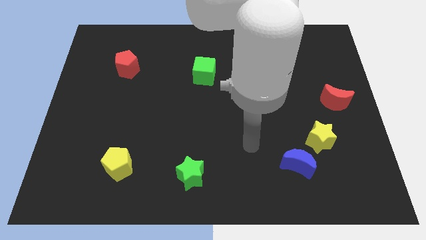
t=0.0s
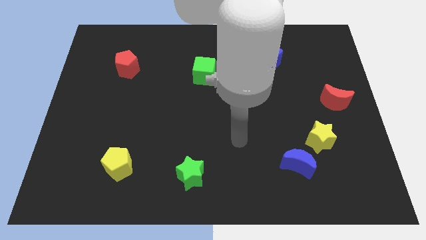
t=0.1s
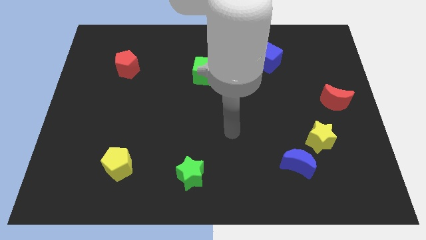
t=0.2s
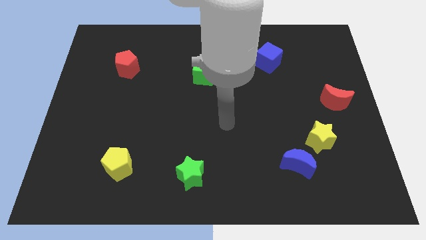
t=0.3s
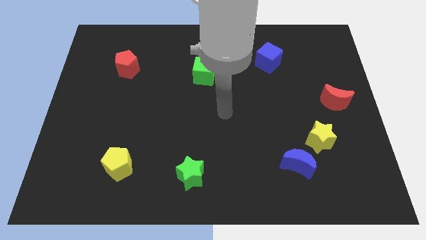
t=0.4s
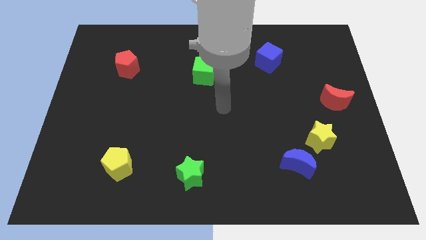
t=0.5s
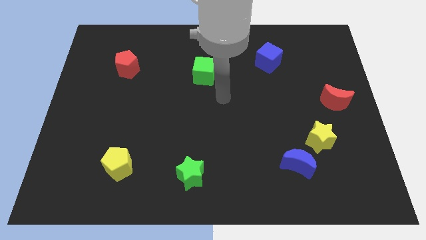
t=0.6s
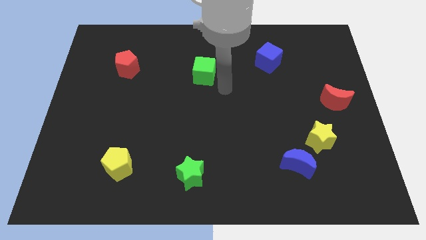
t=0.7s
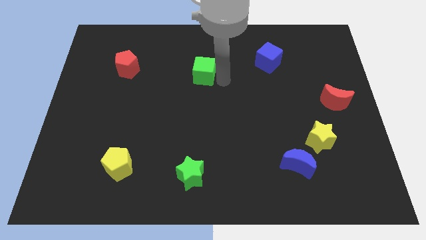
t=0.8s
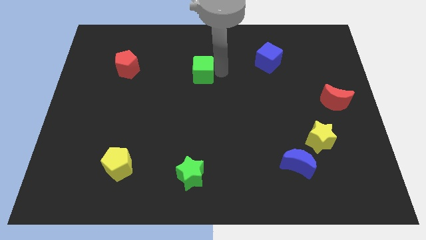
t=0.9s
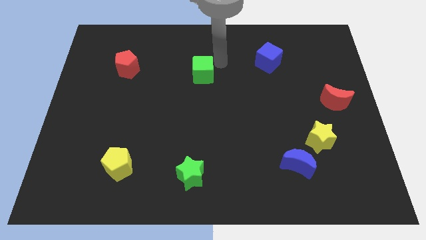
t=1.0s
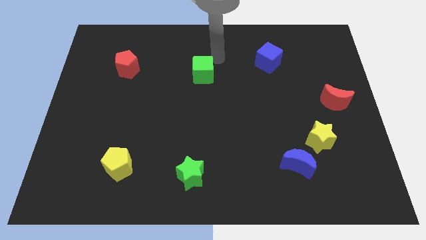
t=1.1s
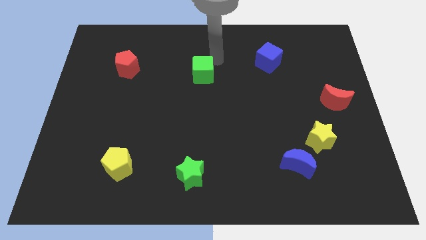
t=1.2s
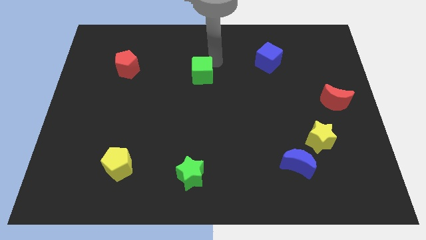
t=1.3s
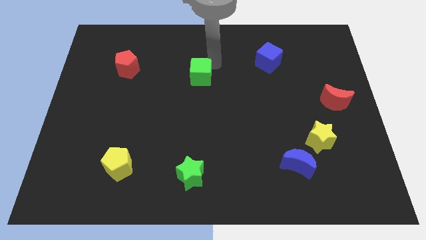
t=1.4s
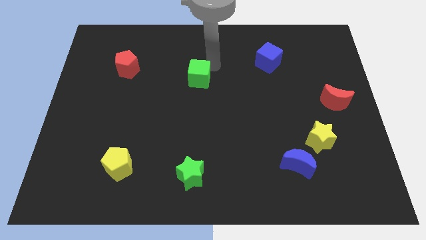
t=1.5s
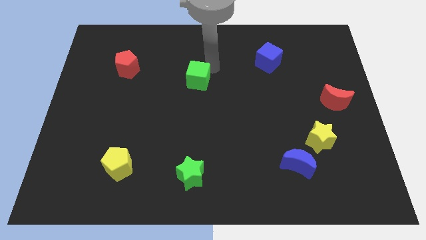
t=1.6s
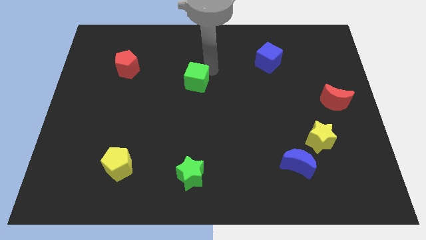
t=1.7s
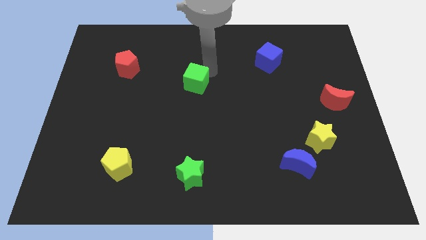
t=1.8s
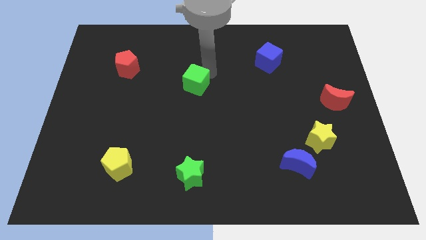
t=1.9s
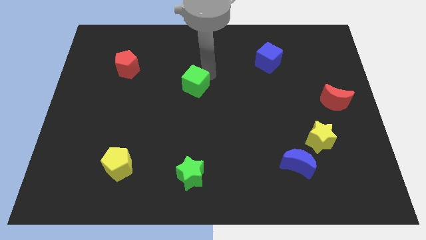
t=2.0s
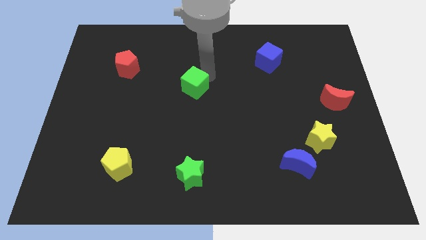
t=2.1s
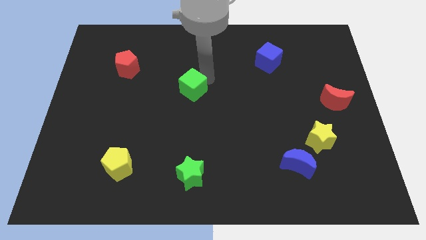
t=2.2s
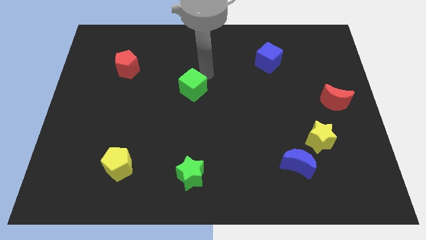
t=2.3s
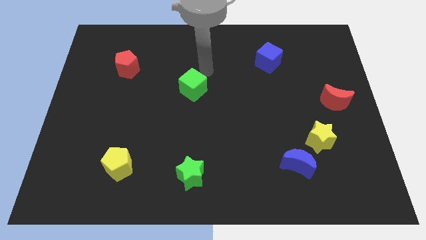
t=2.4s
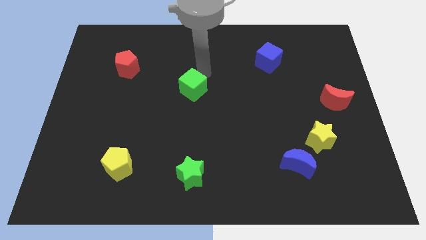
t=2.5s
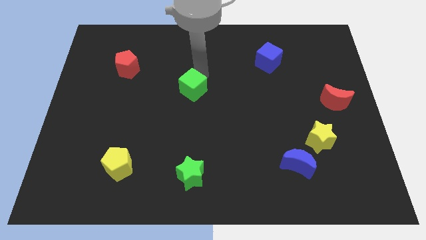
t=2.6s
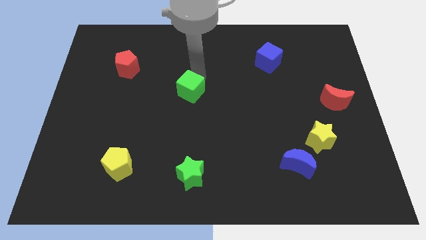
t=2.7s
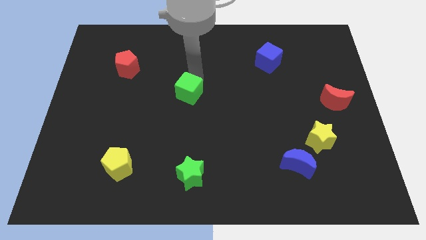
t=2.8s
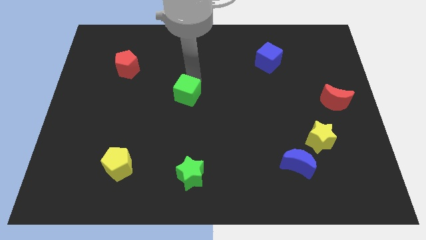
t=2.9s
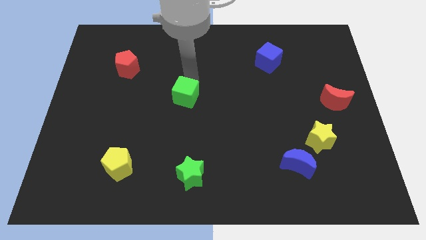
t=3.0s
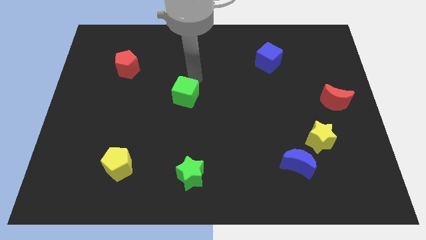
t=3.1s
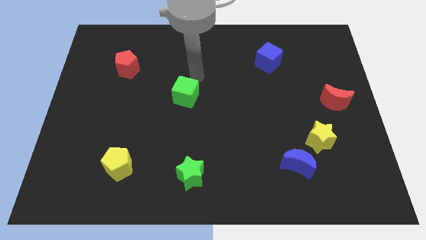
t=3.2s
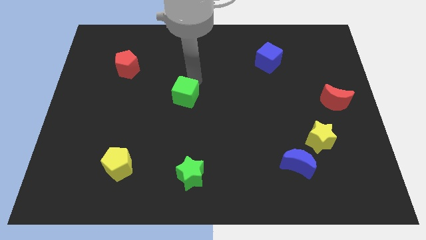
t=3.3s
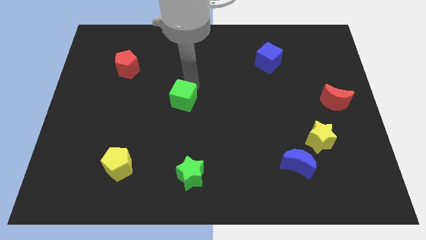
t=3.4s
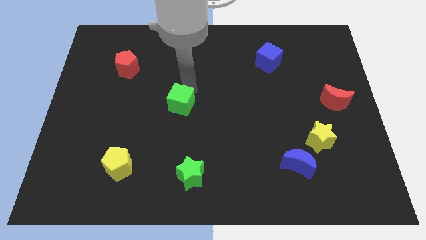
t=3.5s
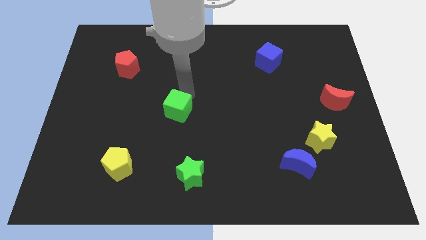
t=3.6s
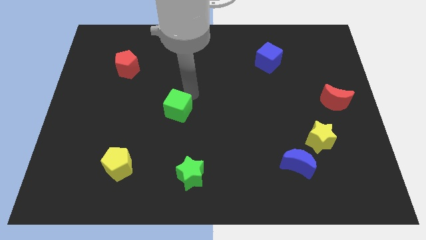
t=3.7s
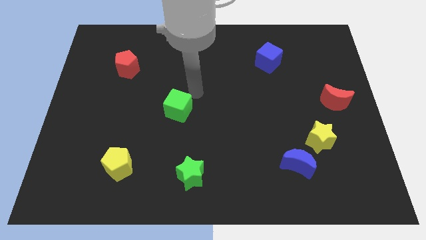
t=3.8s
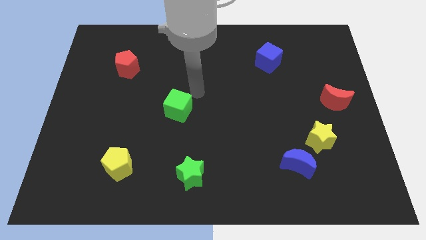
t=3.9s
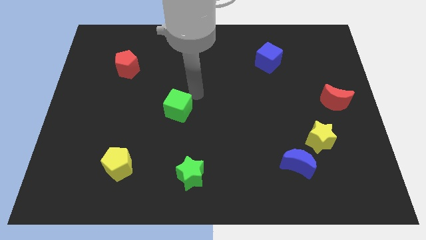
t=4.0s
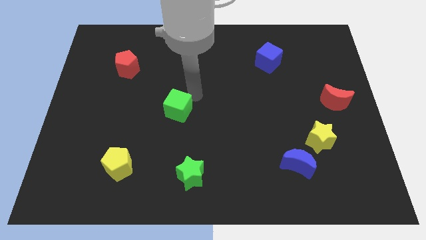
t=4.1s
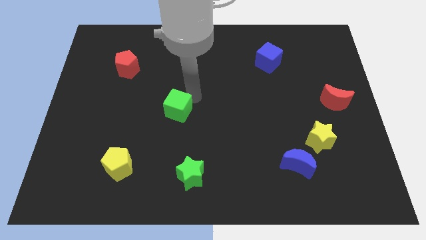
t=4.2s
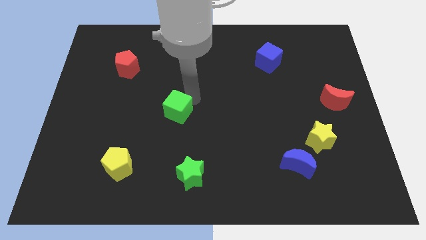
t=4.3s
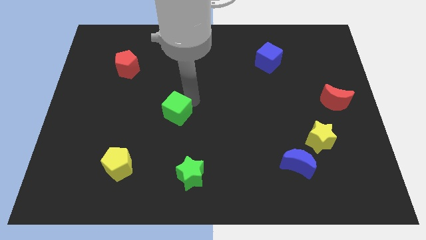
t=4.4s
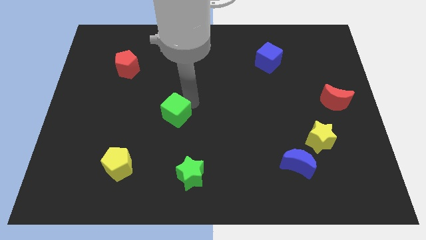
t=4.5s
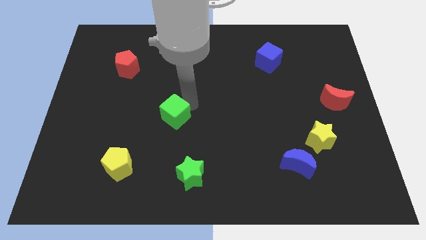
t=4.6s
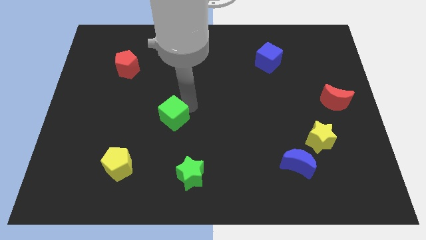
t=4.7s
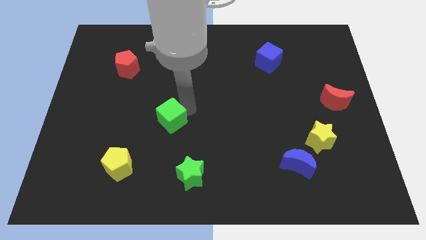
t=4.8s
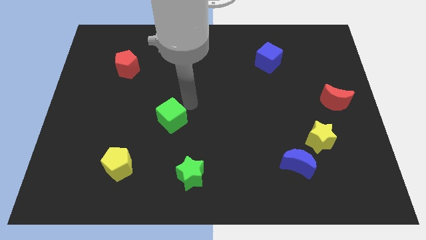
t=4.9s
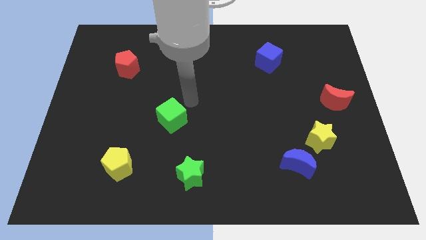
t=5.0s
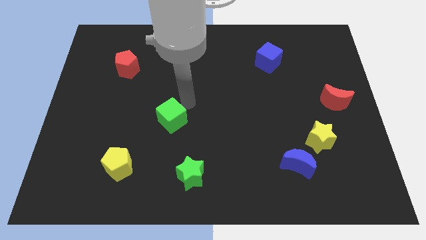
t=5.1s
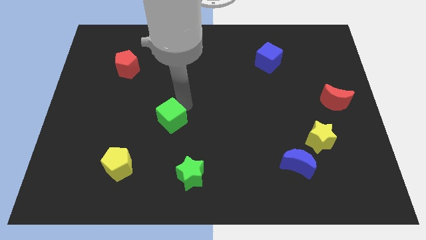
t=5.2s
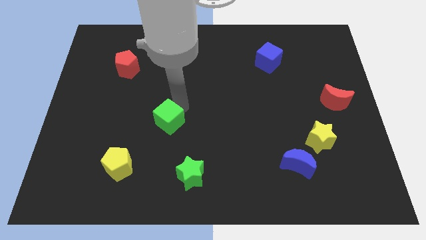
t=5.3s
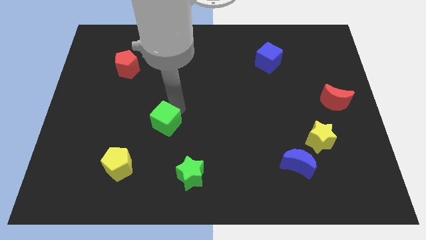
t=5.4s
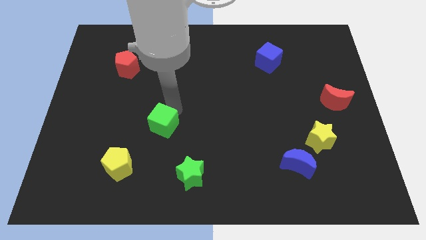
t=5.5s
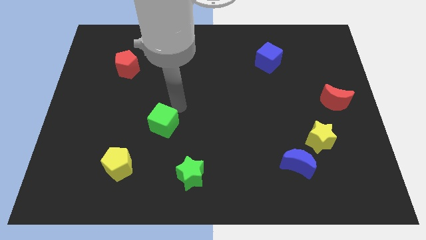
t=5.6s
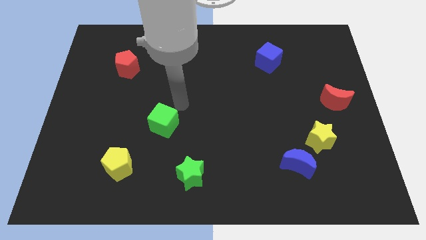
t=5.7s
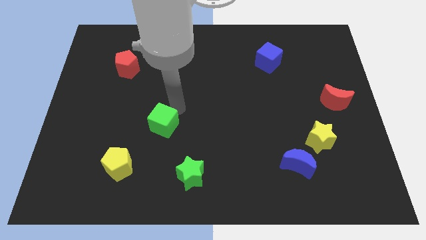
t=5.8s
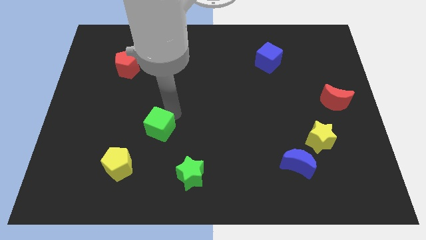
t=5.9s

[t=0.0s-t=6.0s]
move the green cube diagonally up and to the right of the yellow pentagon

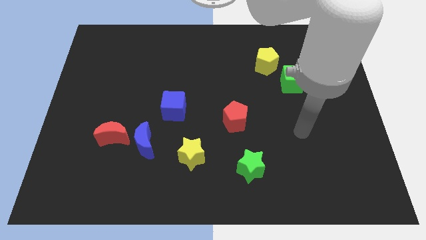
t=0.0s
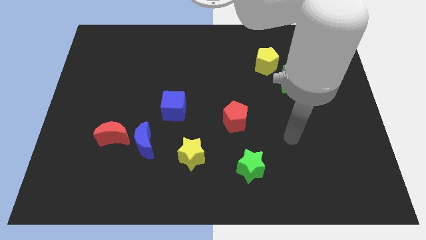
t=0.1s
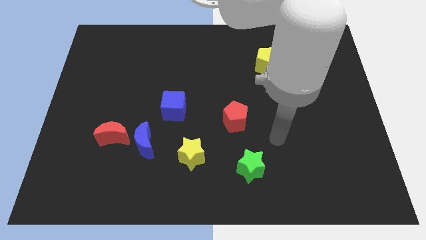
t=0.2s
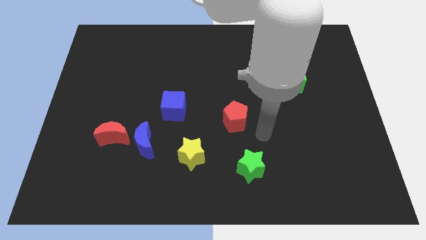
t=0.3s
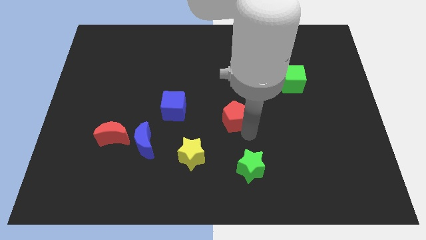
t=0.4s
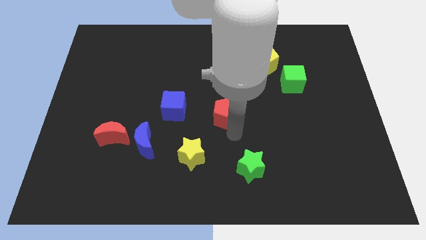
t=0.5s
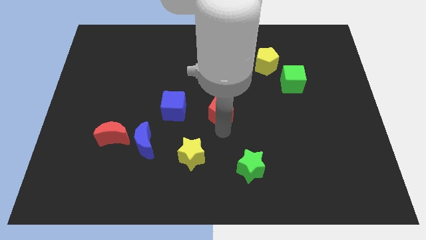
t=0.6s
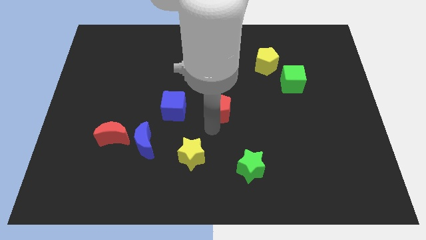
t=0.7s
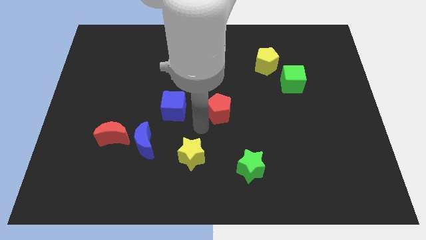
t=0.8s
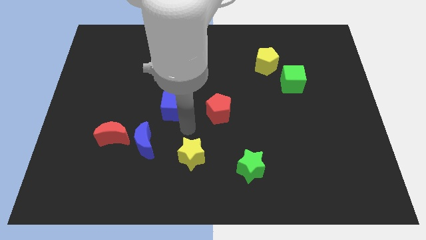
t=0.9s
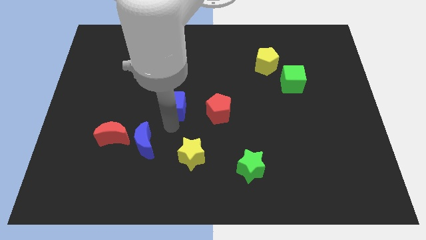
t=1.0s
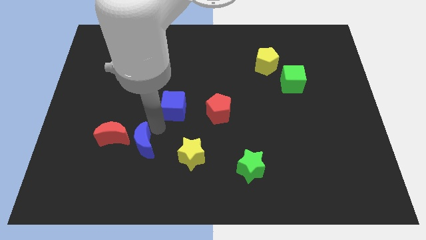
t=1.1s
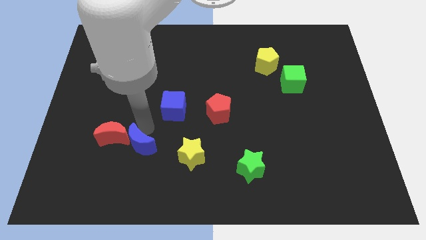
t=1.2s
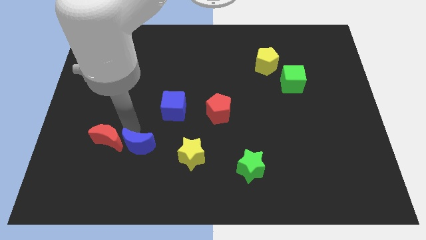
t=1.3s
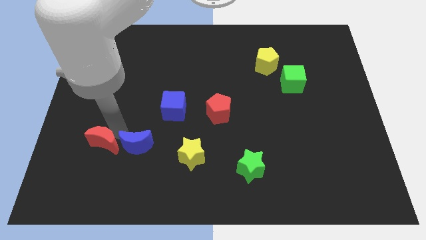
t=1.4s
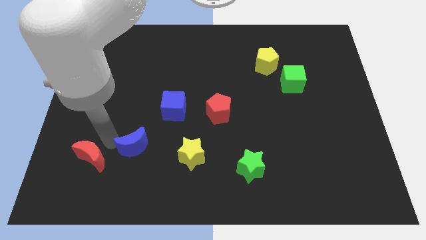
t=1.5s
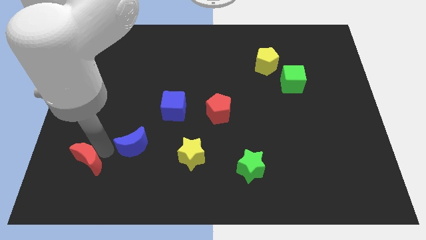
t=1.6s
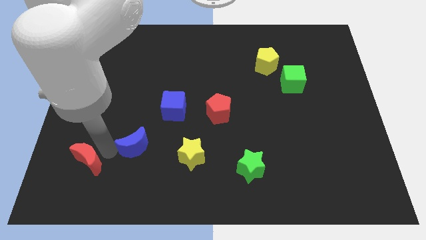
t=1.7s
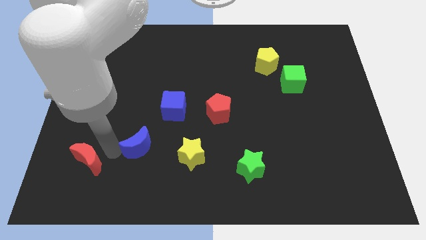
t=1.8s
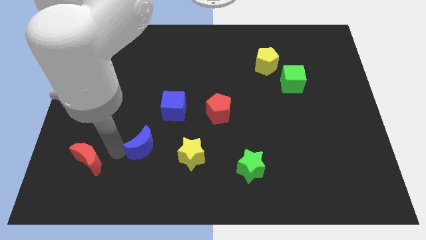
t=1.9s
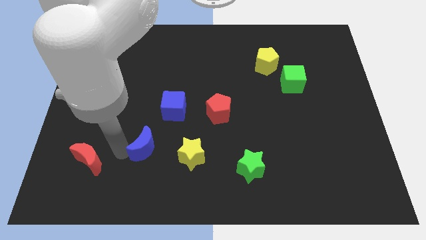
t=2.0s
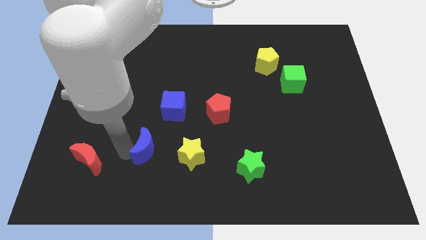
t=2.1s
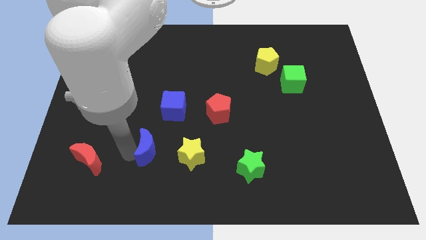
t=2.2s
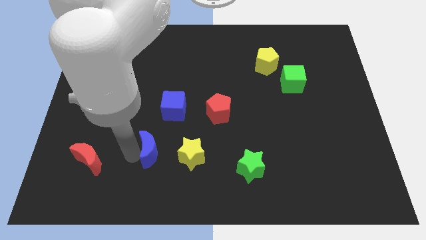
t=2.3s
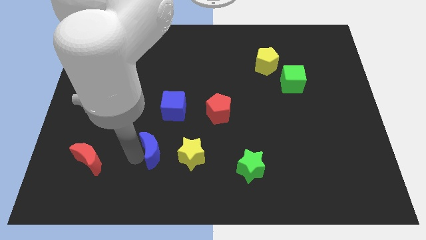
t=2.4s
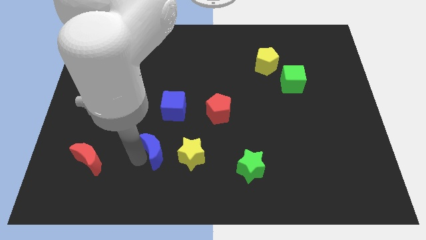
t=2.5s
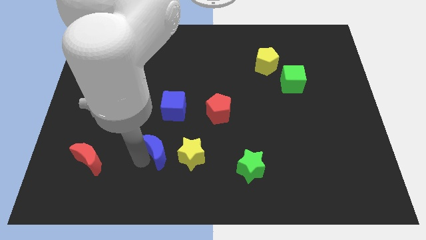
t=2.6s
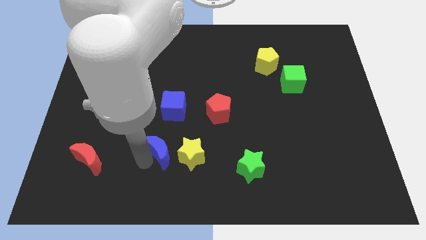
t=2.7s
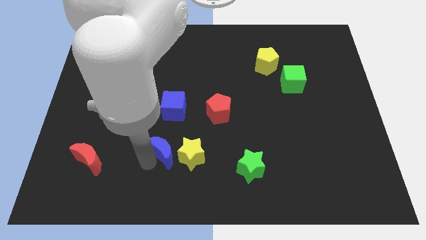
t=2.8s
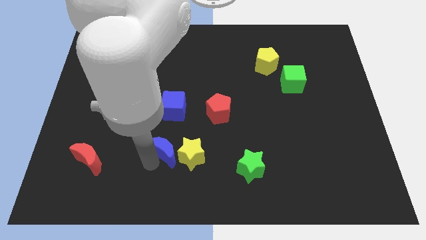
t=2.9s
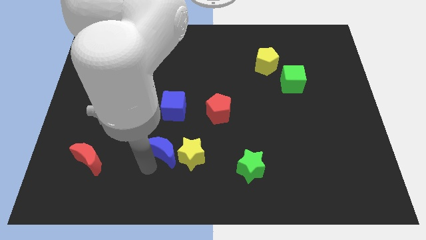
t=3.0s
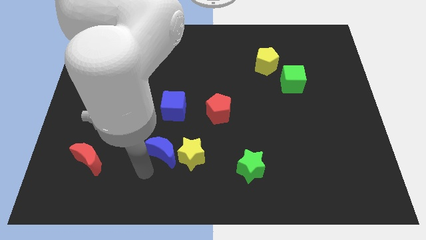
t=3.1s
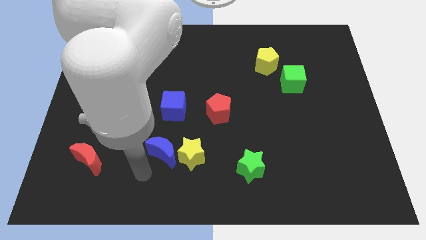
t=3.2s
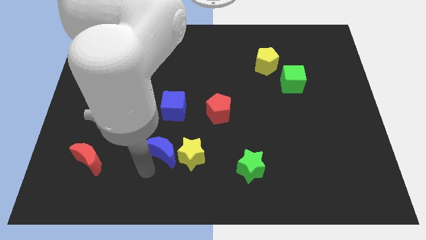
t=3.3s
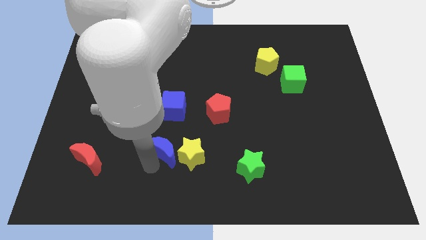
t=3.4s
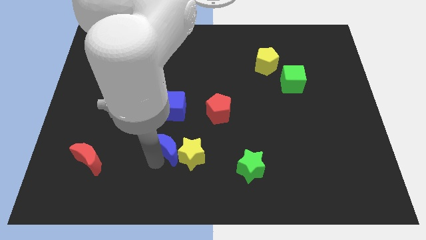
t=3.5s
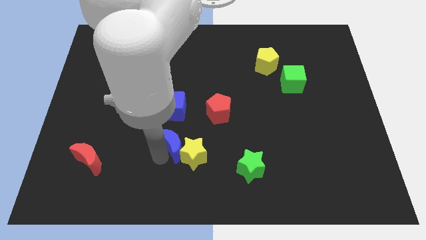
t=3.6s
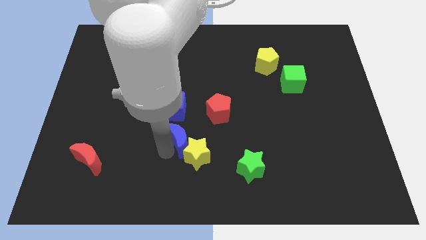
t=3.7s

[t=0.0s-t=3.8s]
put the blue moon to the bottom left of the red pentagon
